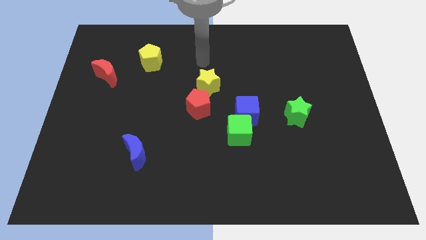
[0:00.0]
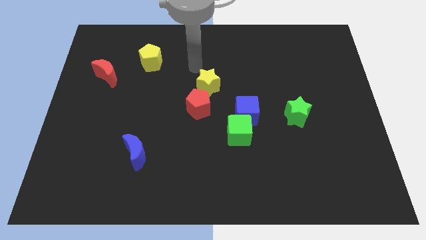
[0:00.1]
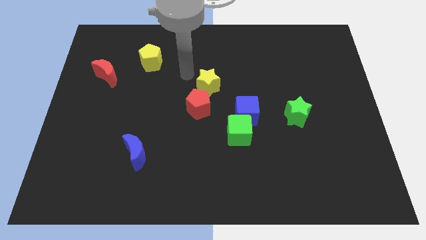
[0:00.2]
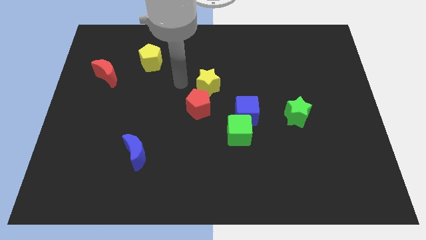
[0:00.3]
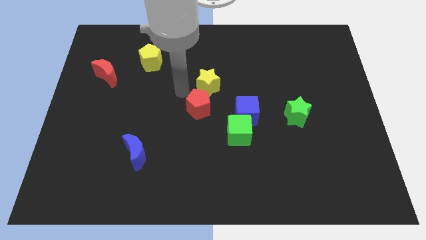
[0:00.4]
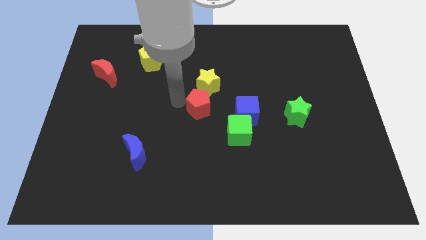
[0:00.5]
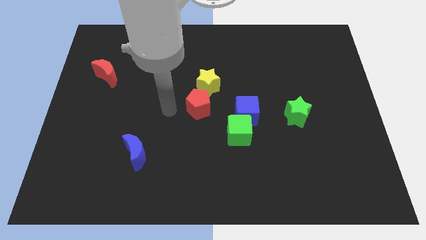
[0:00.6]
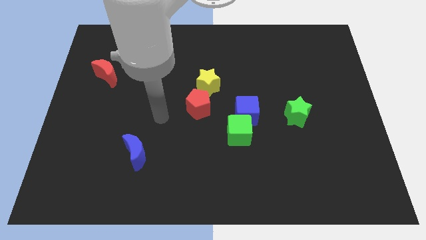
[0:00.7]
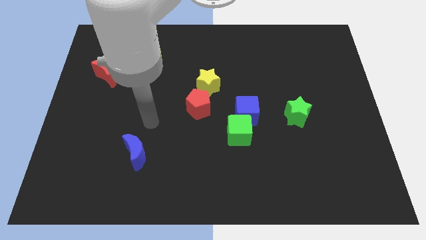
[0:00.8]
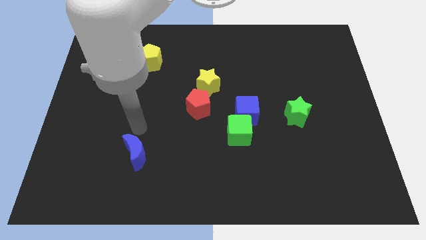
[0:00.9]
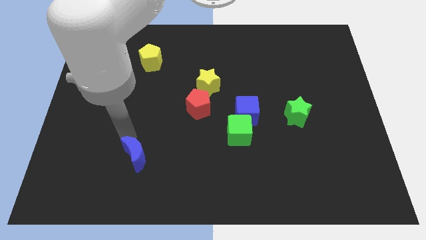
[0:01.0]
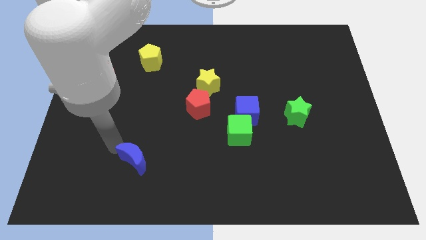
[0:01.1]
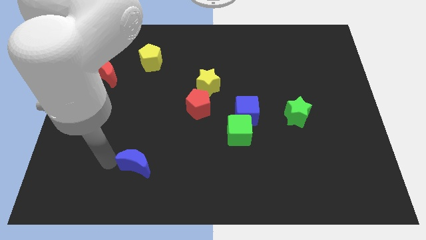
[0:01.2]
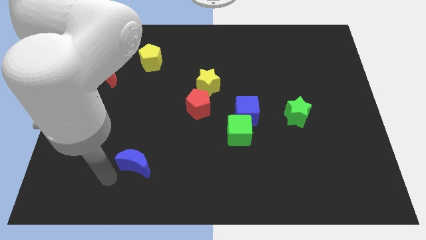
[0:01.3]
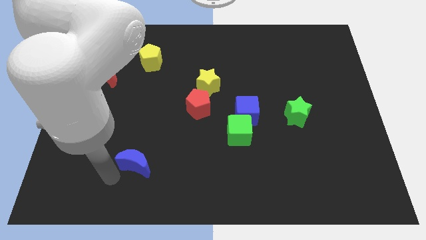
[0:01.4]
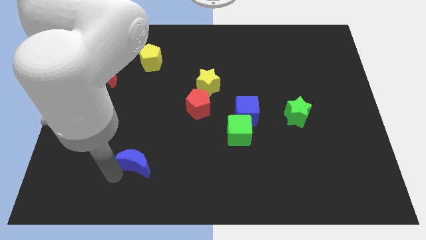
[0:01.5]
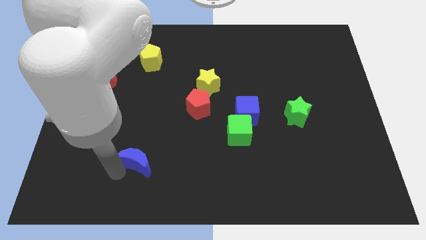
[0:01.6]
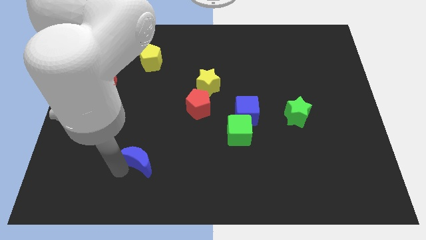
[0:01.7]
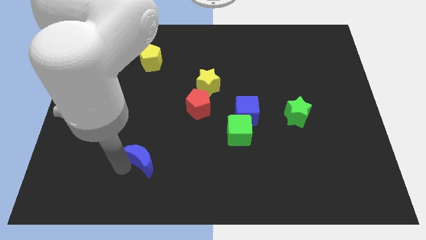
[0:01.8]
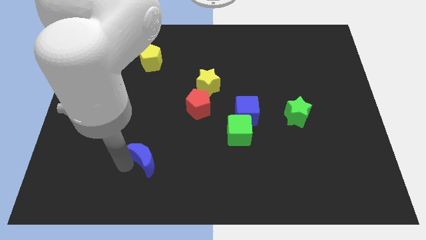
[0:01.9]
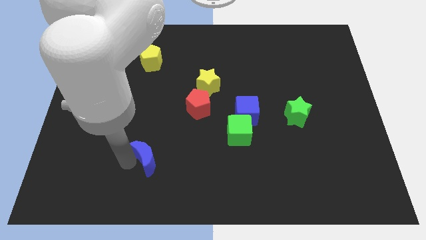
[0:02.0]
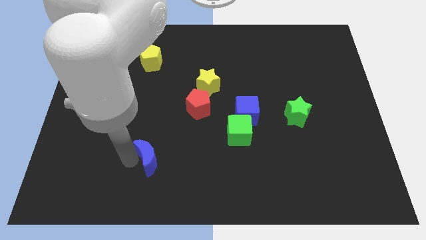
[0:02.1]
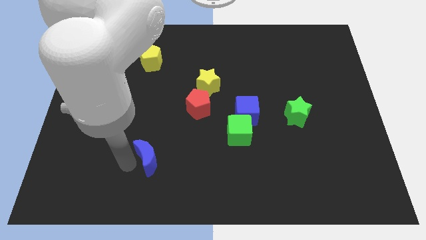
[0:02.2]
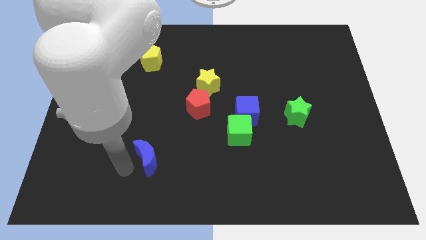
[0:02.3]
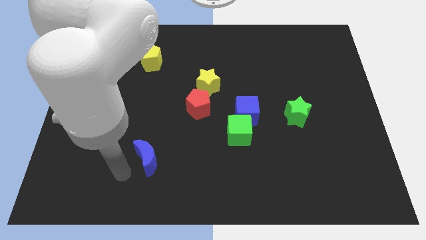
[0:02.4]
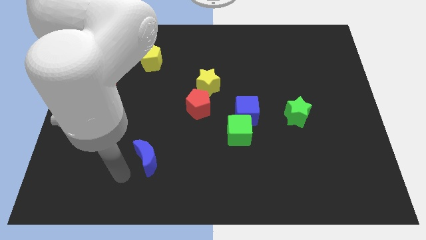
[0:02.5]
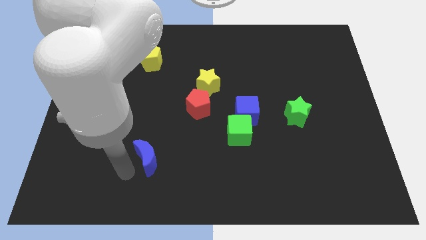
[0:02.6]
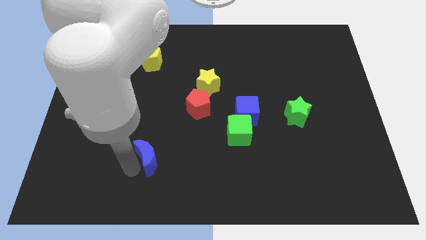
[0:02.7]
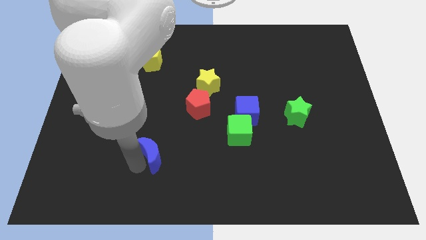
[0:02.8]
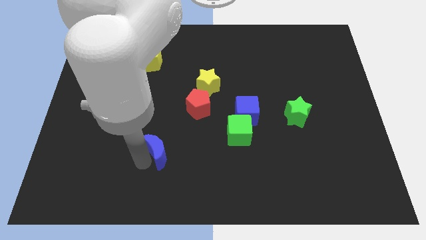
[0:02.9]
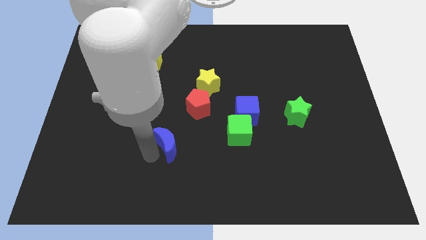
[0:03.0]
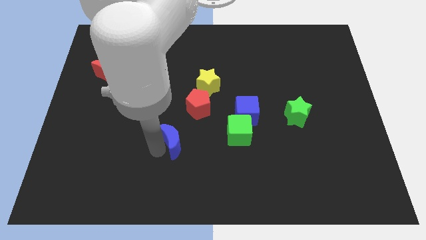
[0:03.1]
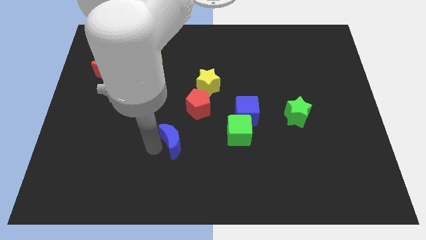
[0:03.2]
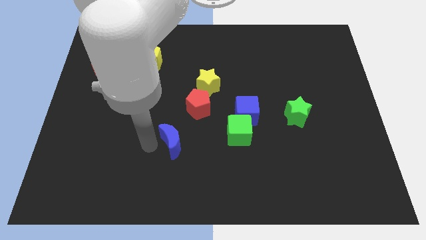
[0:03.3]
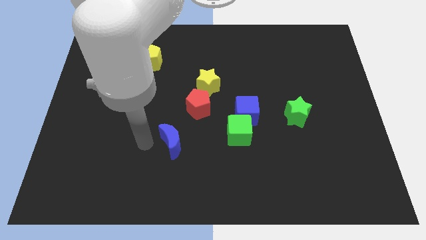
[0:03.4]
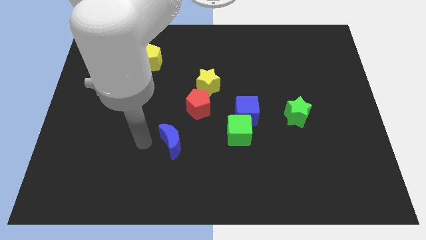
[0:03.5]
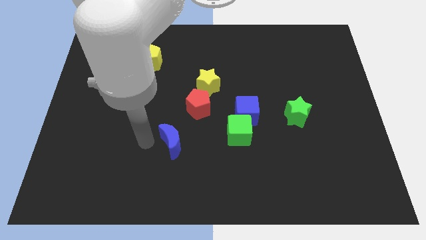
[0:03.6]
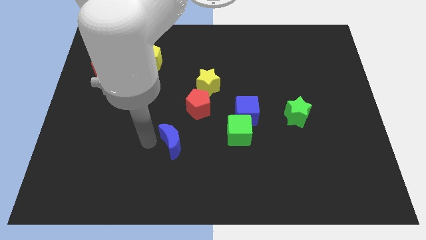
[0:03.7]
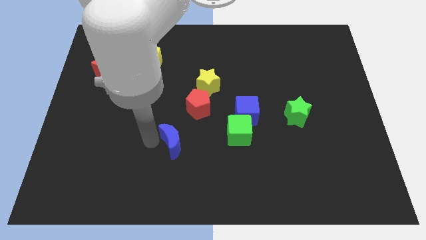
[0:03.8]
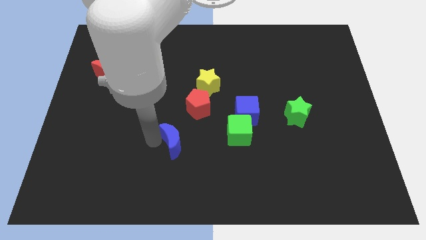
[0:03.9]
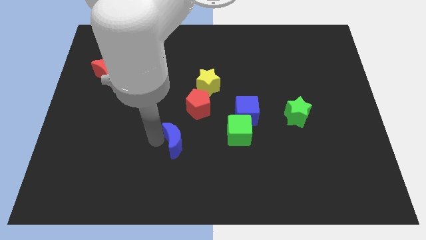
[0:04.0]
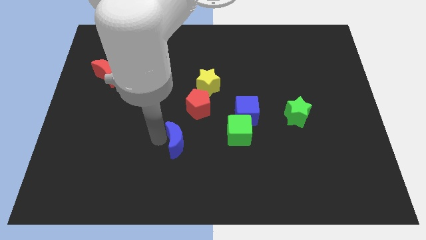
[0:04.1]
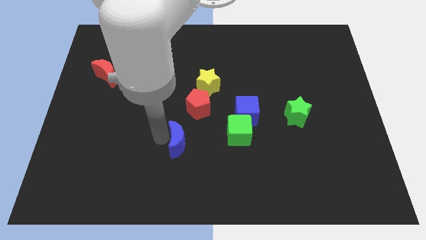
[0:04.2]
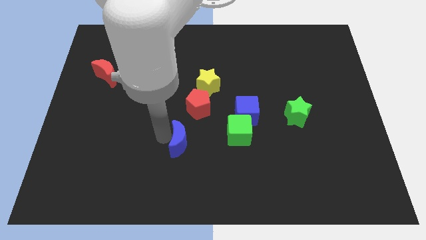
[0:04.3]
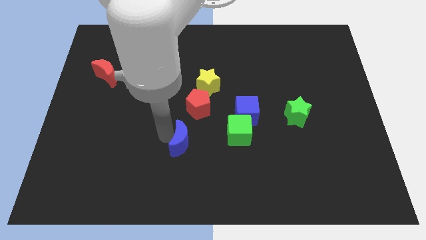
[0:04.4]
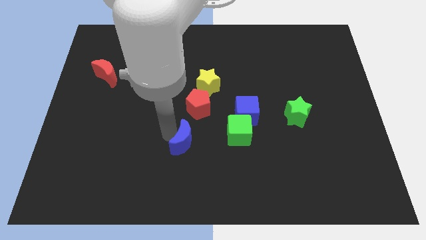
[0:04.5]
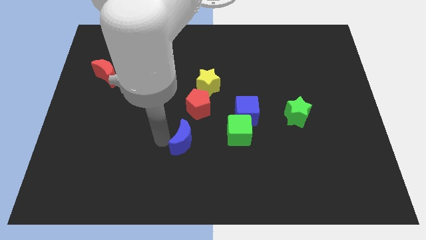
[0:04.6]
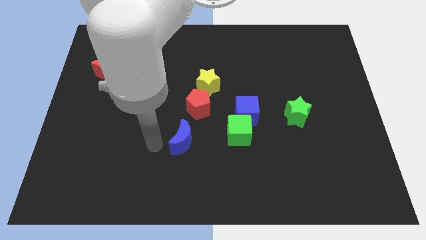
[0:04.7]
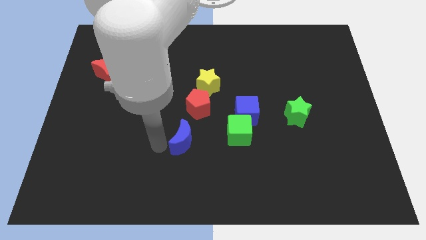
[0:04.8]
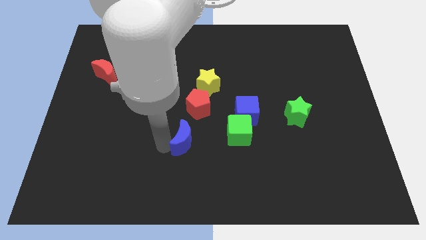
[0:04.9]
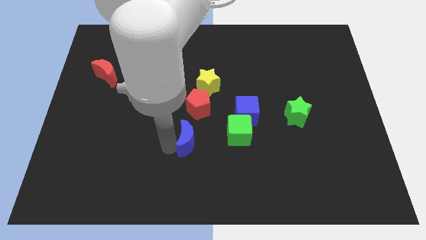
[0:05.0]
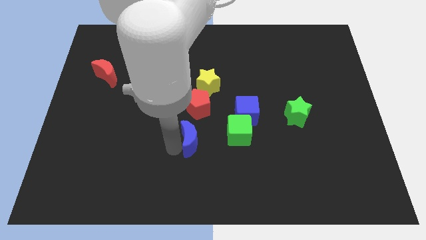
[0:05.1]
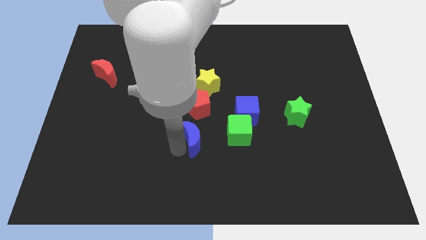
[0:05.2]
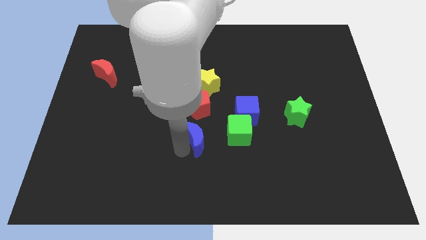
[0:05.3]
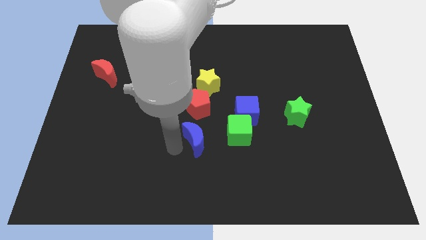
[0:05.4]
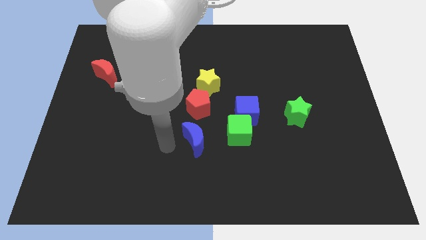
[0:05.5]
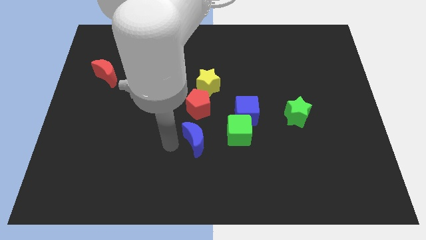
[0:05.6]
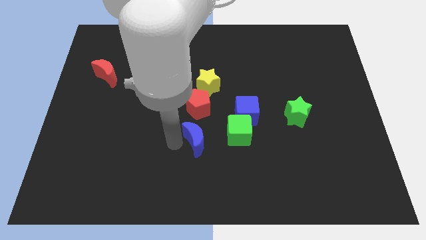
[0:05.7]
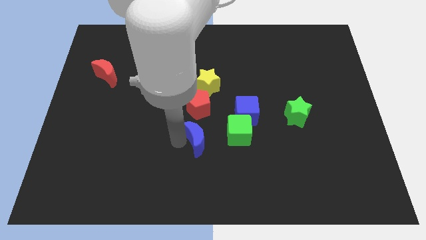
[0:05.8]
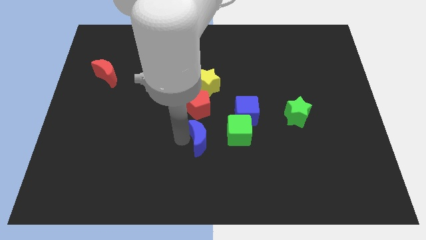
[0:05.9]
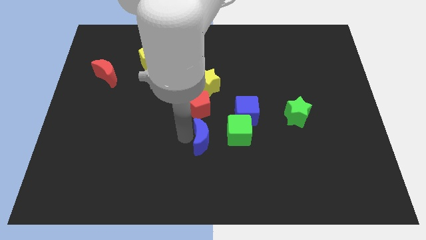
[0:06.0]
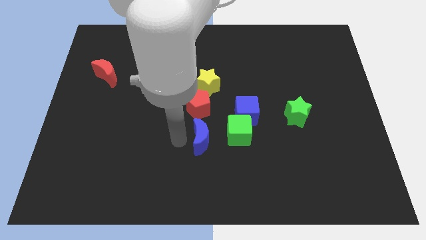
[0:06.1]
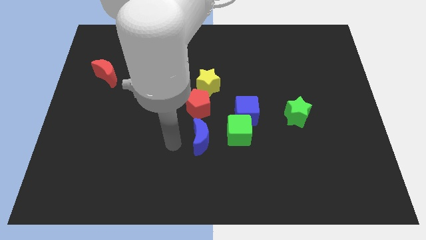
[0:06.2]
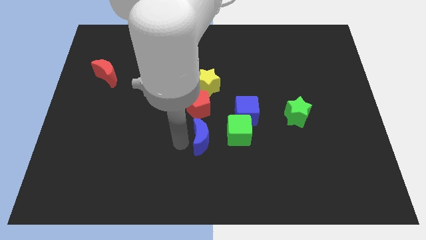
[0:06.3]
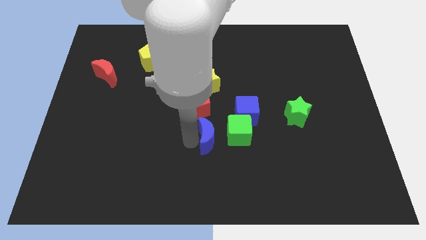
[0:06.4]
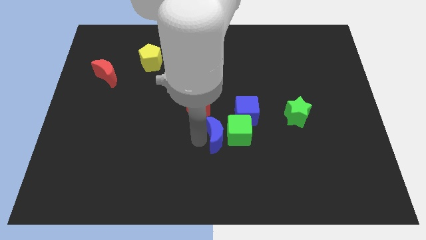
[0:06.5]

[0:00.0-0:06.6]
put the blue moon towards the green cube
